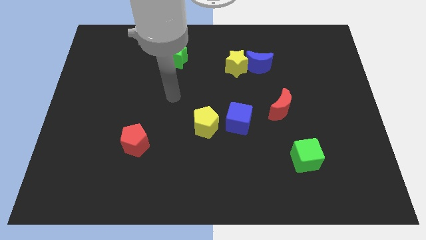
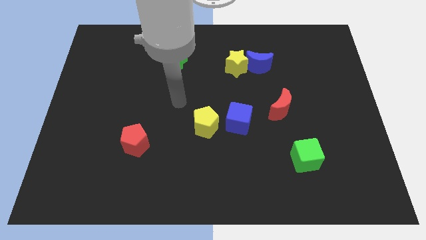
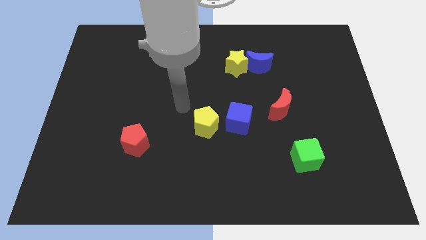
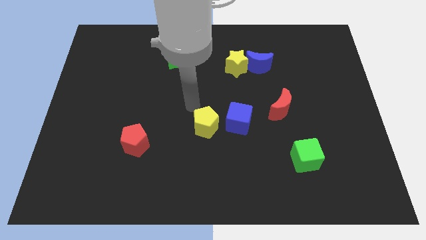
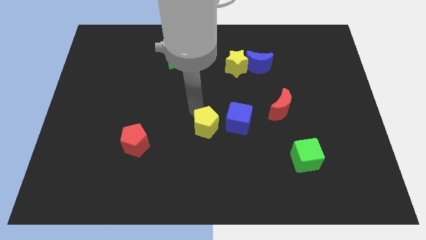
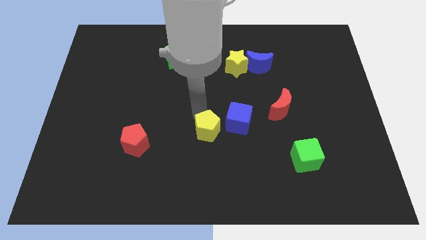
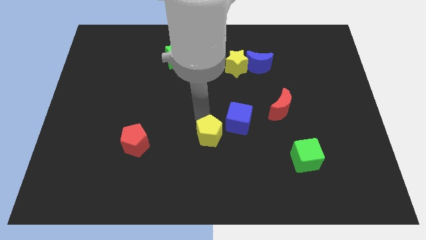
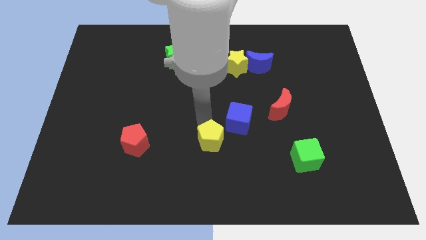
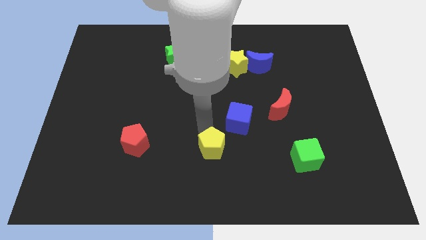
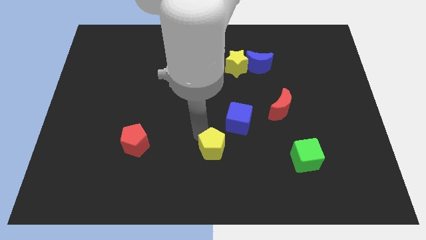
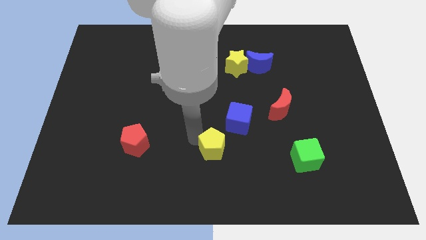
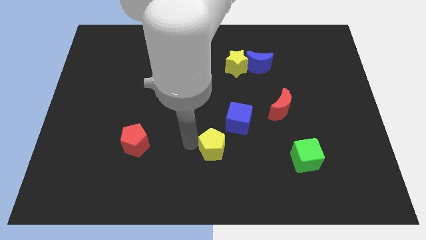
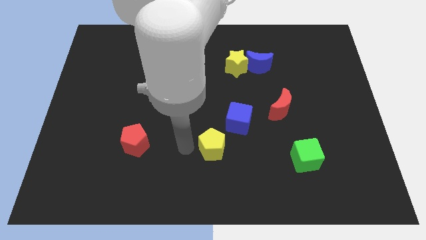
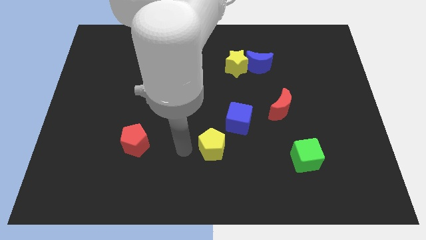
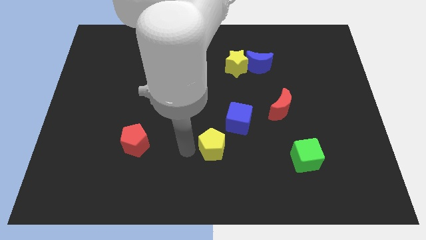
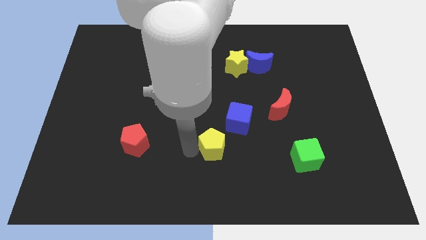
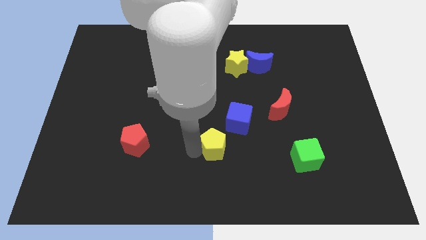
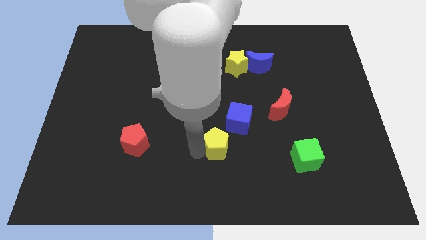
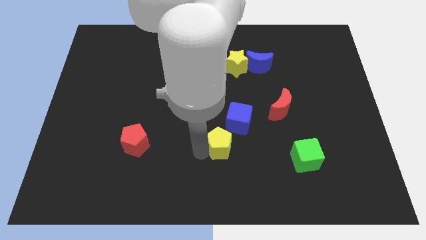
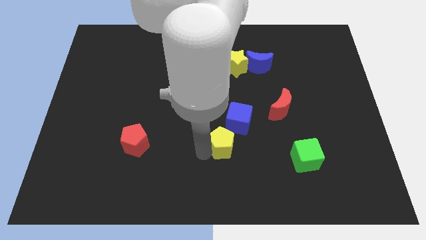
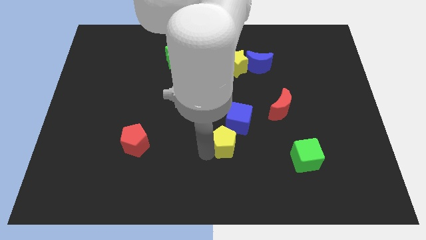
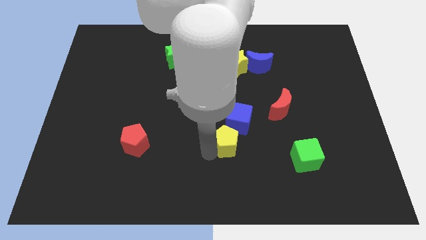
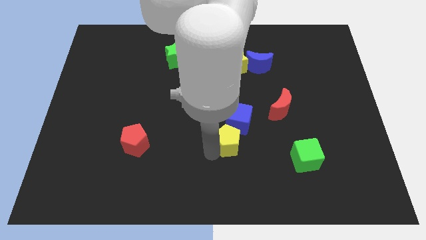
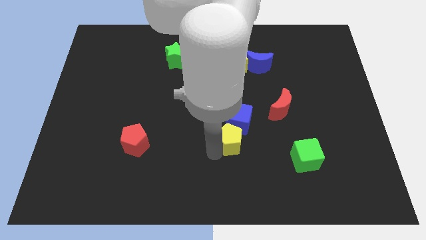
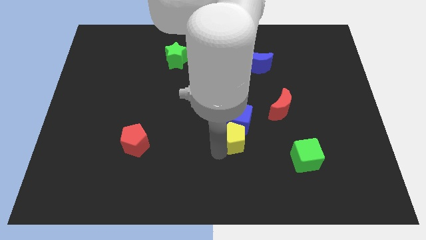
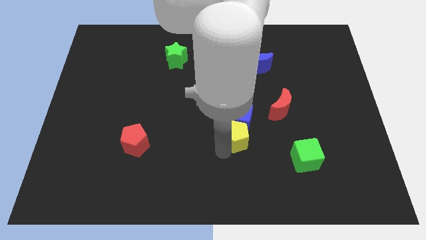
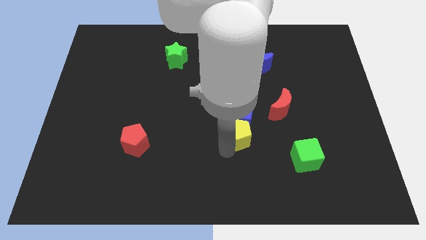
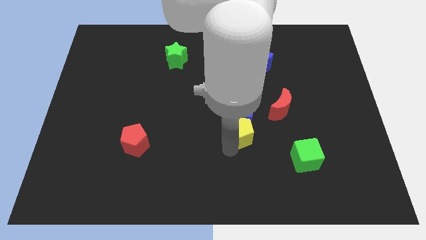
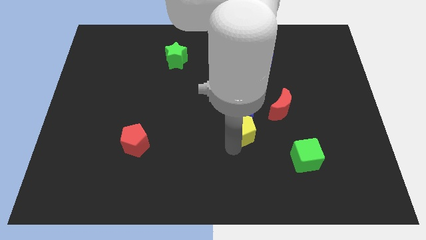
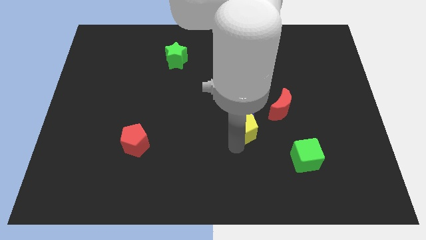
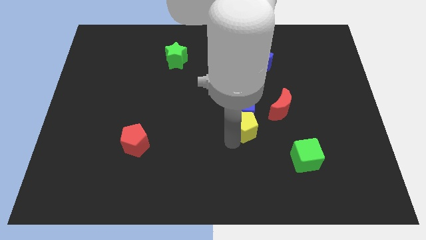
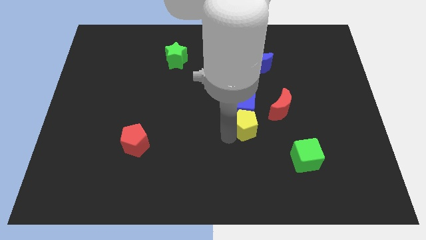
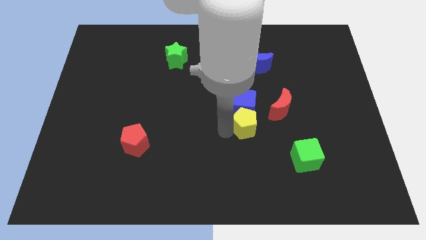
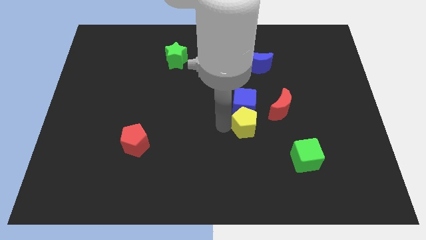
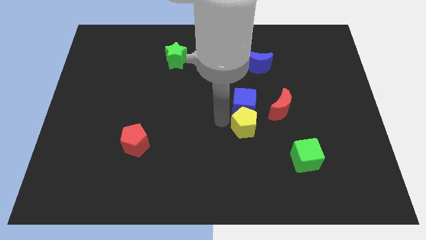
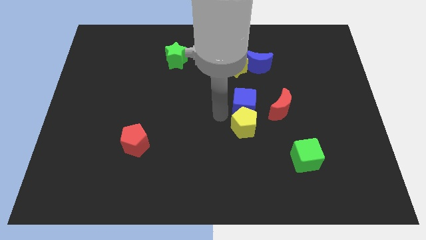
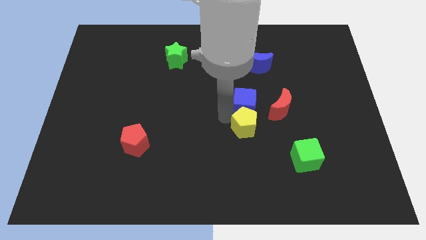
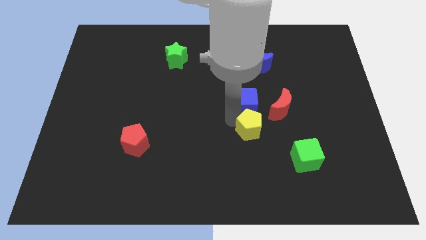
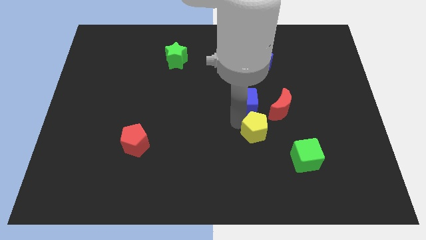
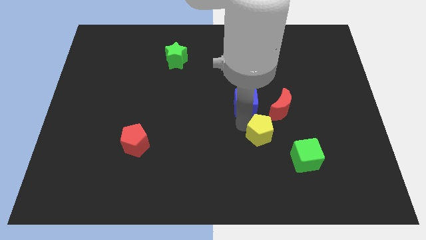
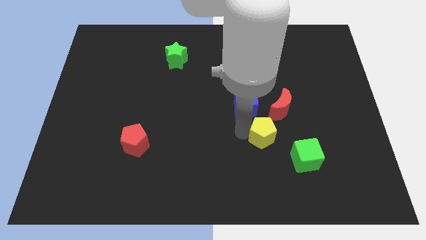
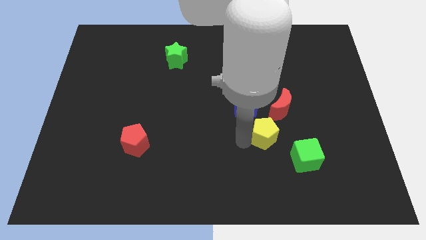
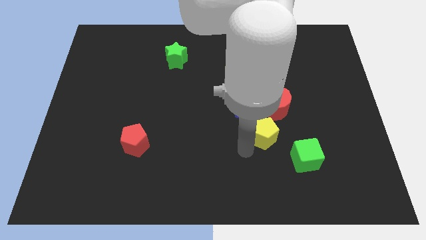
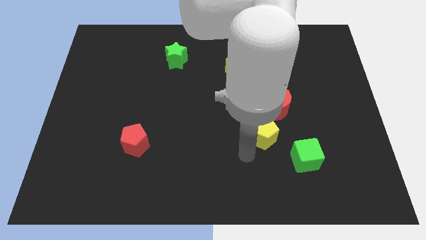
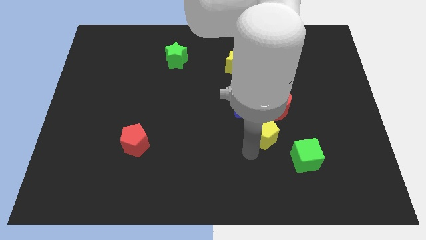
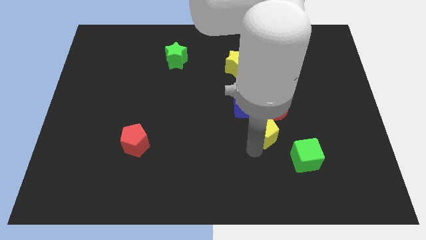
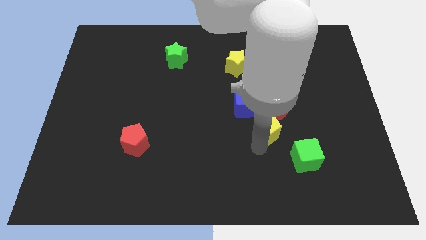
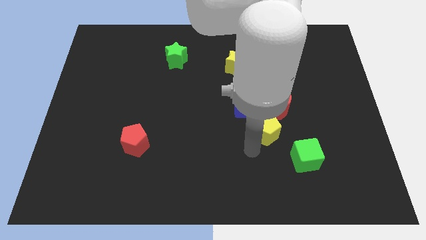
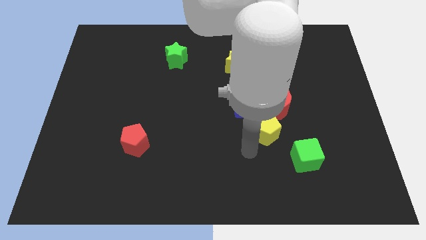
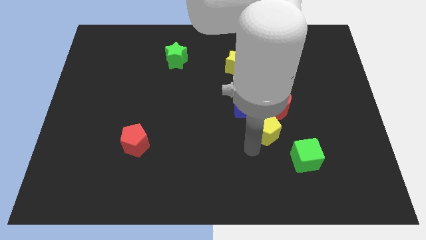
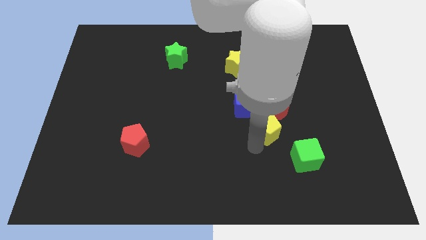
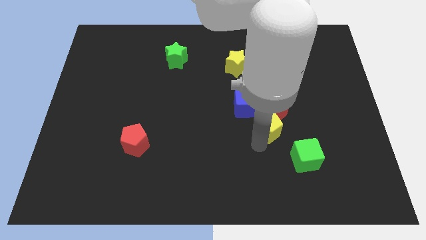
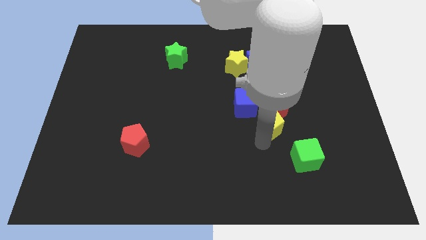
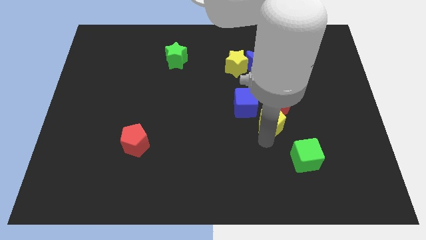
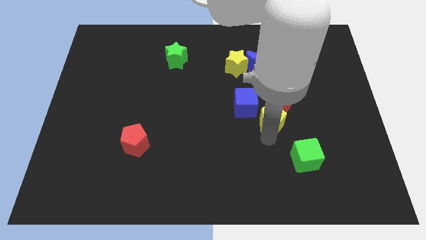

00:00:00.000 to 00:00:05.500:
push the yellow pentagon to the right of the blue cube

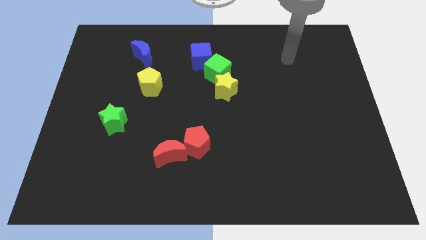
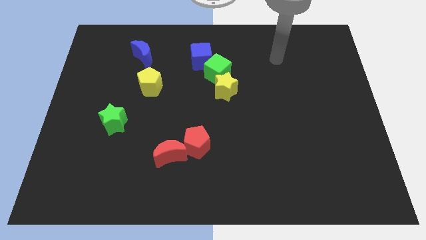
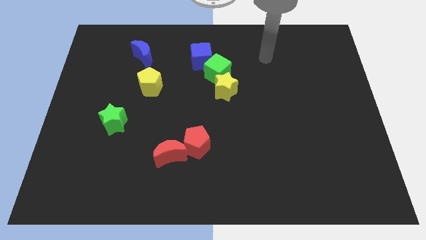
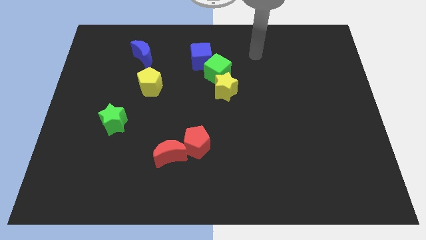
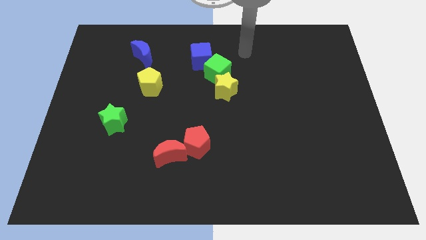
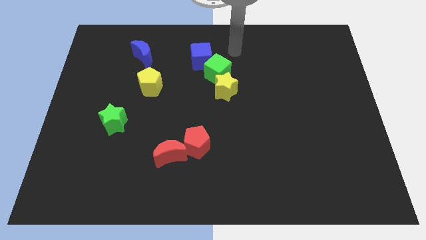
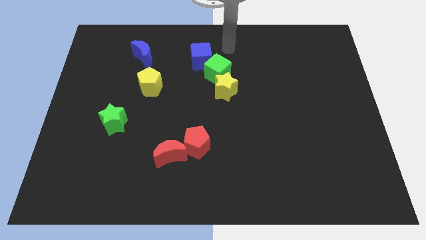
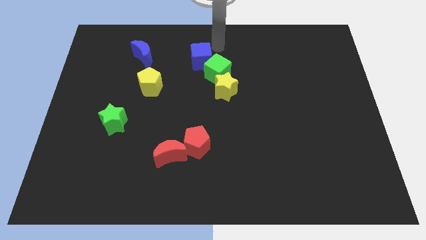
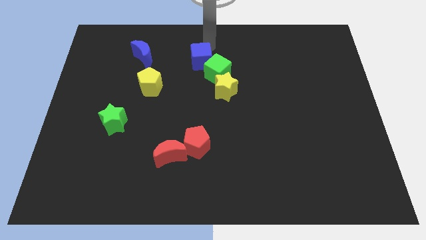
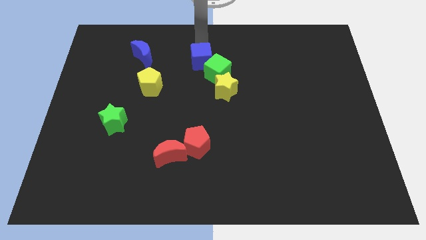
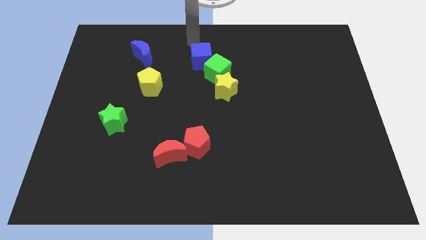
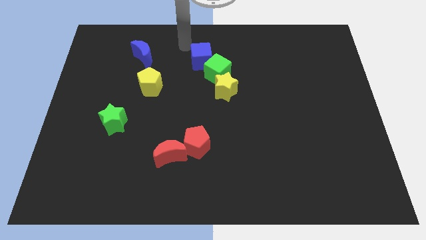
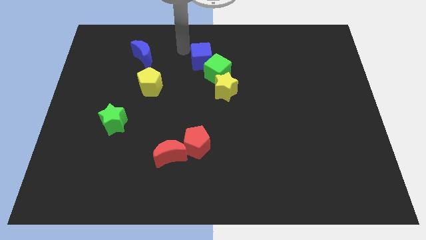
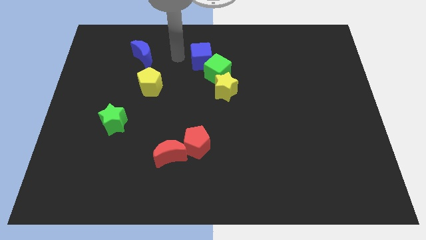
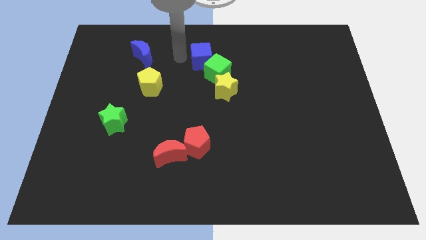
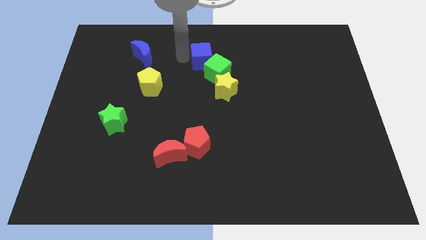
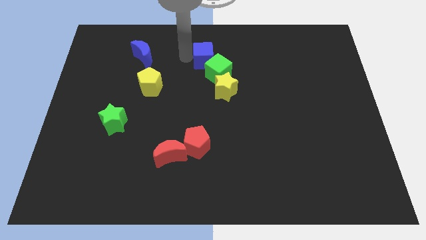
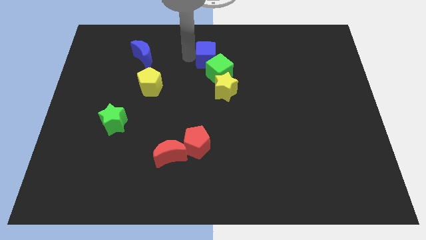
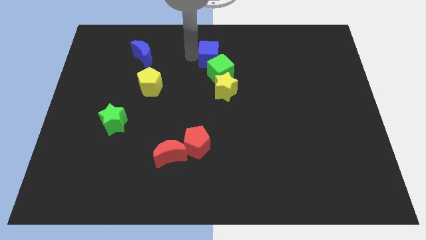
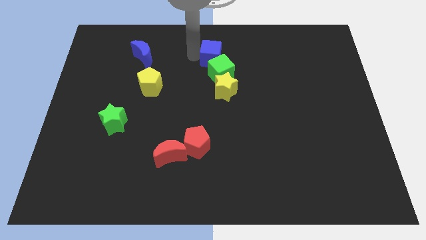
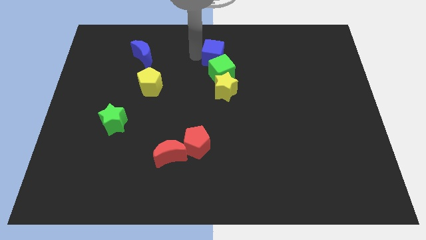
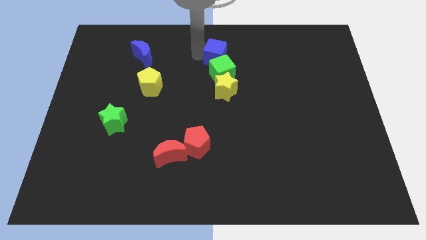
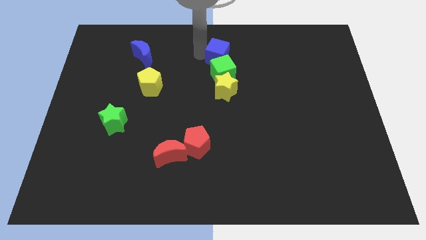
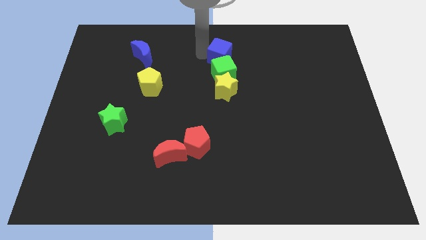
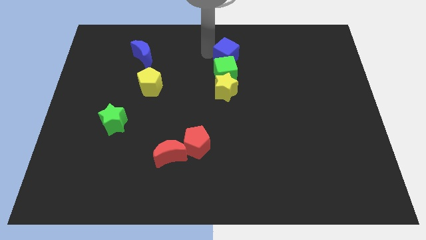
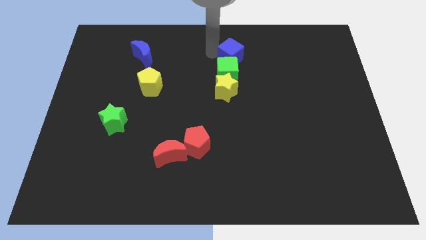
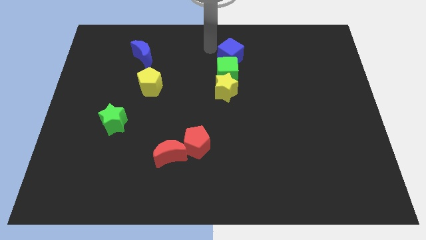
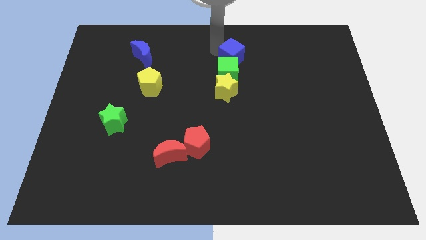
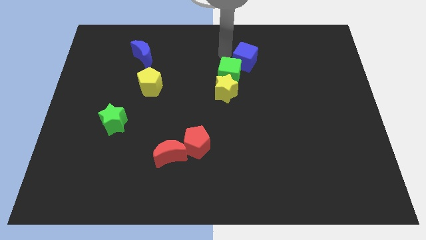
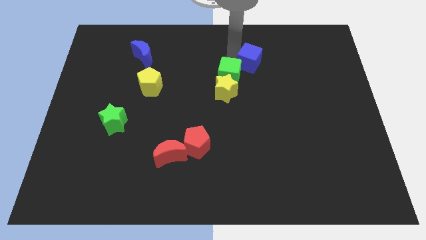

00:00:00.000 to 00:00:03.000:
push the blue cube just right of the green cube
